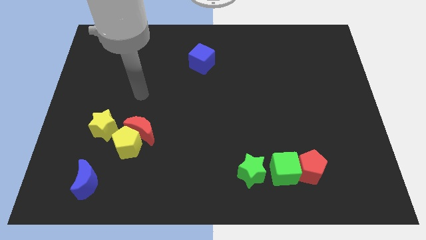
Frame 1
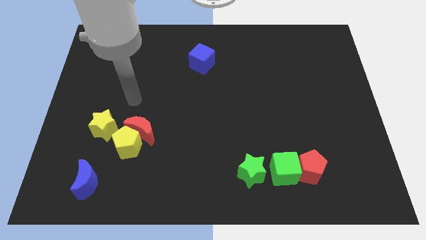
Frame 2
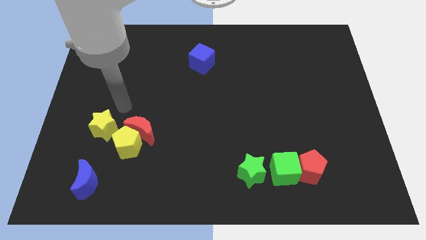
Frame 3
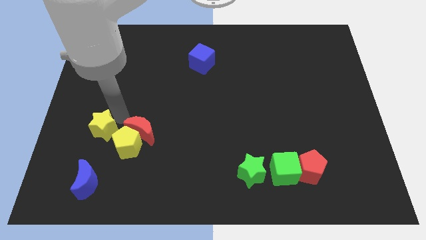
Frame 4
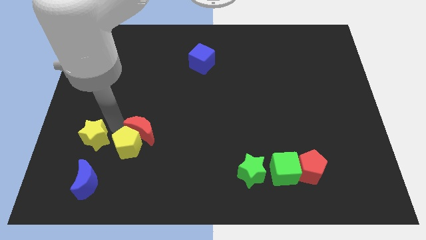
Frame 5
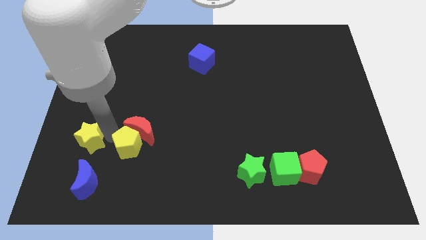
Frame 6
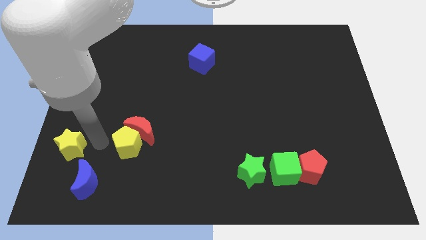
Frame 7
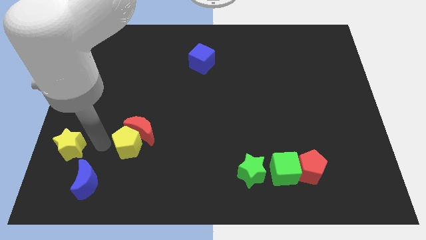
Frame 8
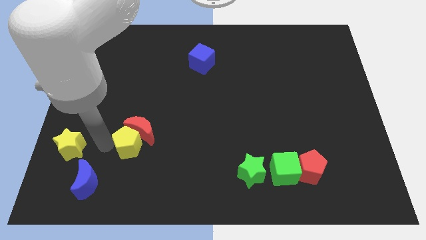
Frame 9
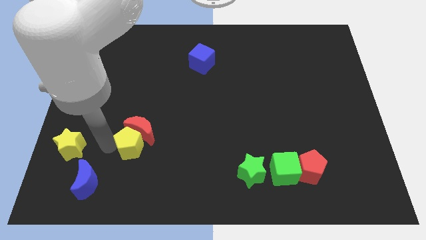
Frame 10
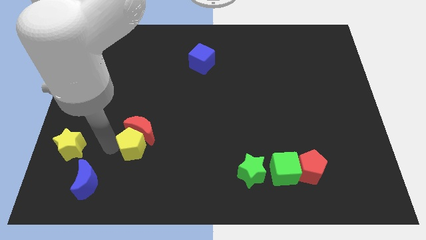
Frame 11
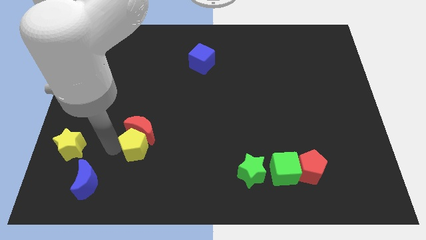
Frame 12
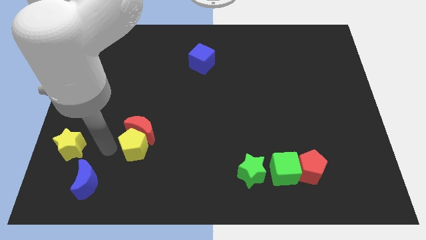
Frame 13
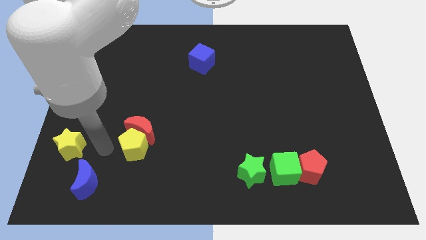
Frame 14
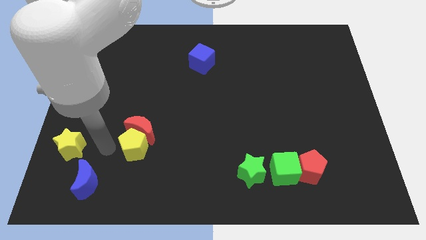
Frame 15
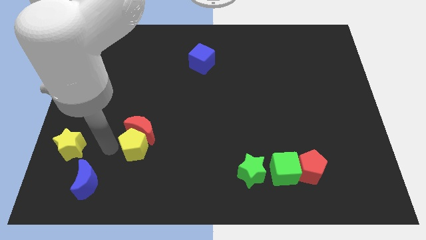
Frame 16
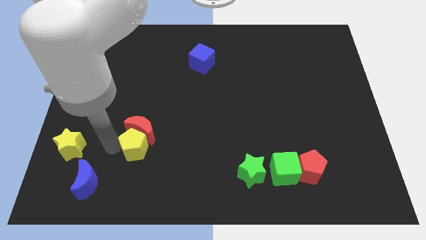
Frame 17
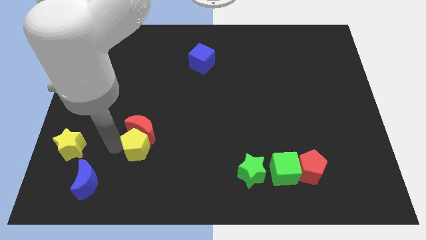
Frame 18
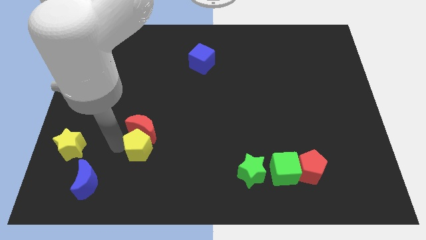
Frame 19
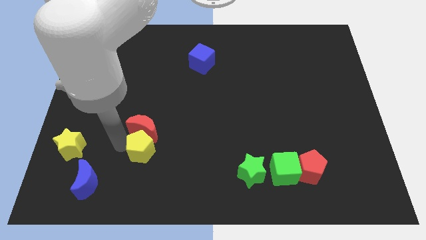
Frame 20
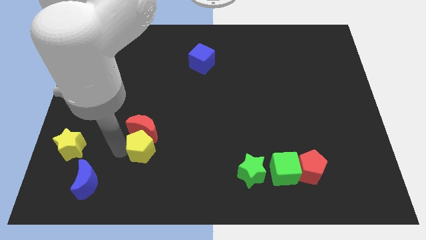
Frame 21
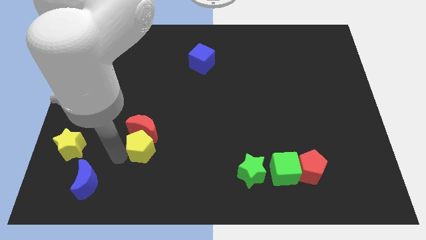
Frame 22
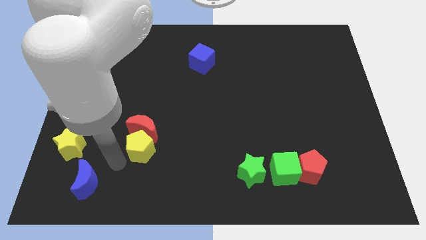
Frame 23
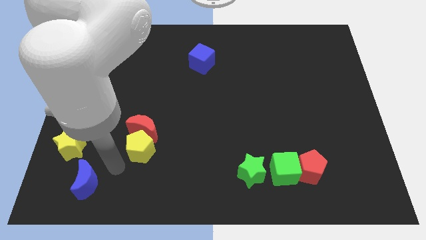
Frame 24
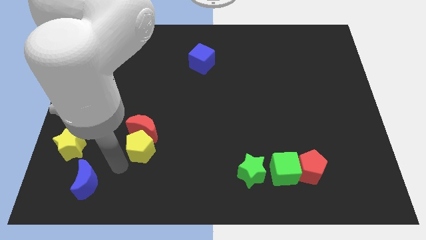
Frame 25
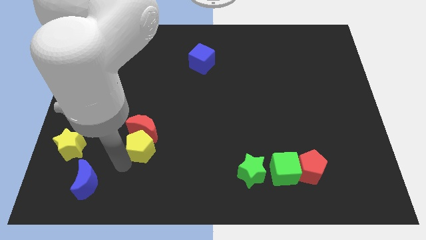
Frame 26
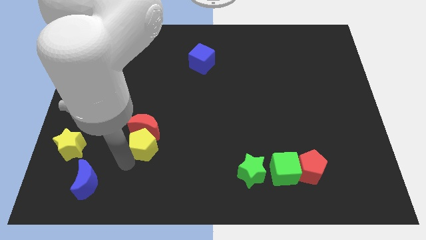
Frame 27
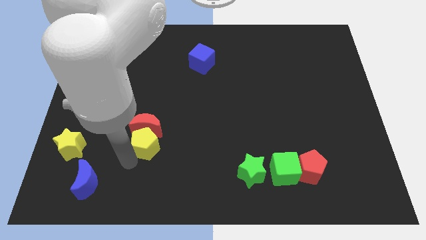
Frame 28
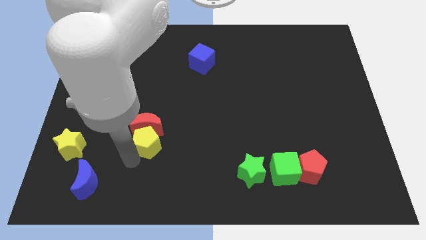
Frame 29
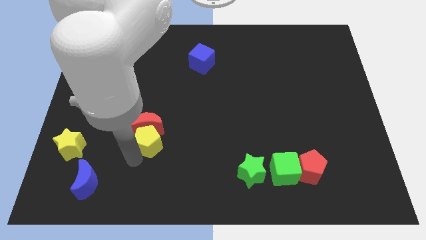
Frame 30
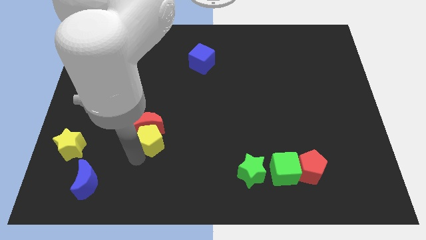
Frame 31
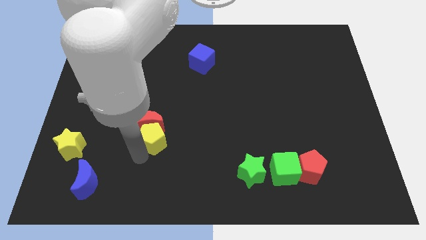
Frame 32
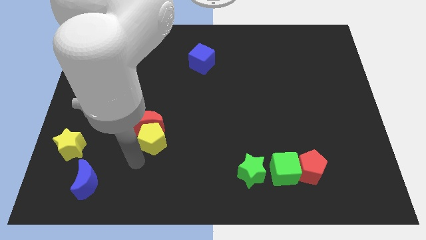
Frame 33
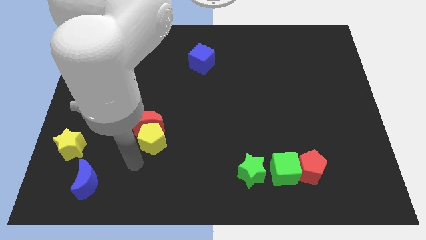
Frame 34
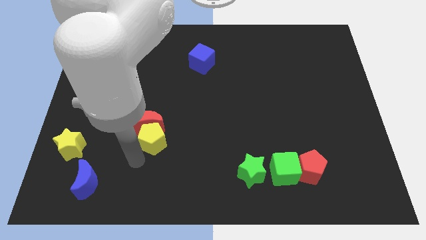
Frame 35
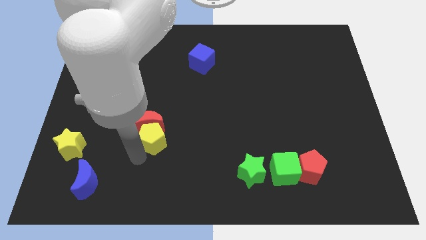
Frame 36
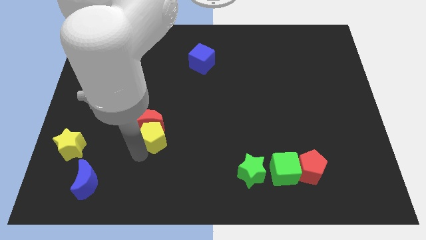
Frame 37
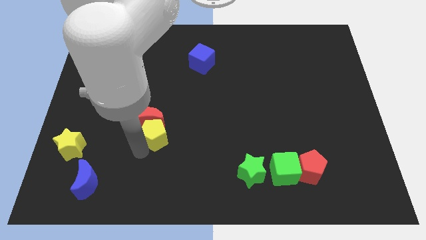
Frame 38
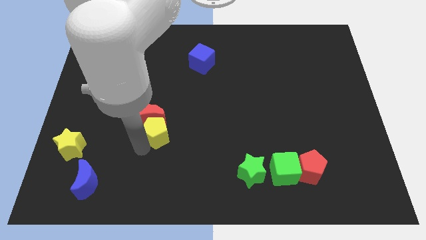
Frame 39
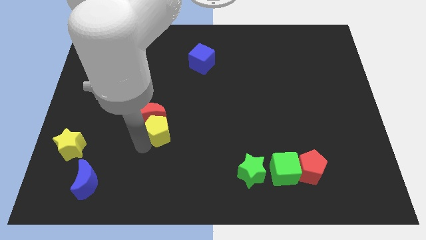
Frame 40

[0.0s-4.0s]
move the yellow pentagon upwards and right diagonally somewhat

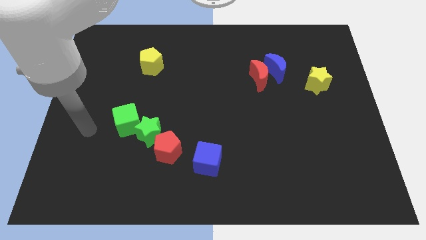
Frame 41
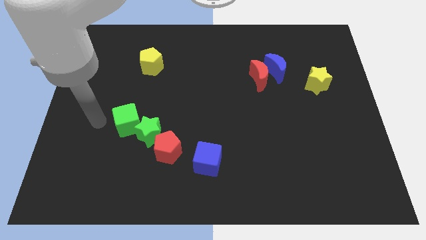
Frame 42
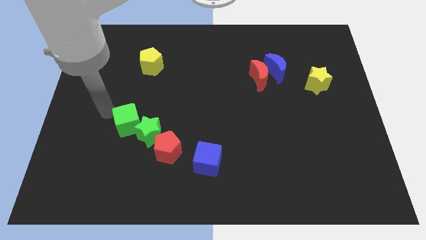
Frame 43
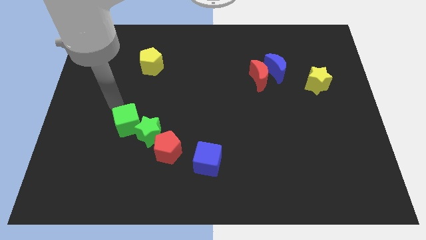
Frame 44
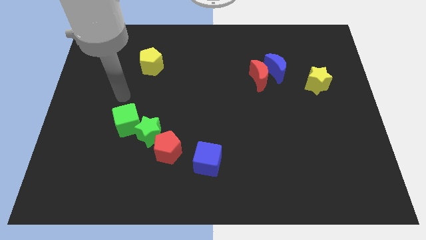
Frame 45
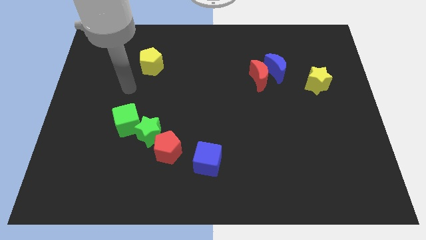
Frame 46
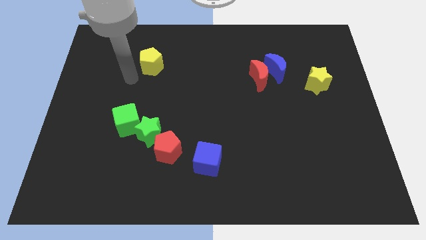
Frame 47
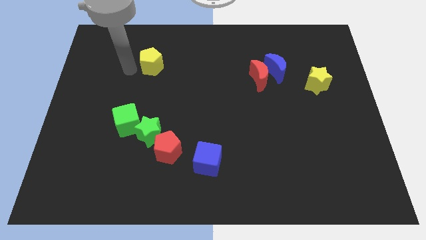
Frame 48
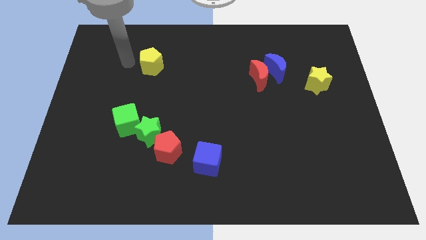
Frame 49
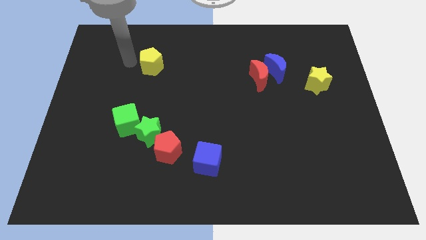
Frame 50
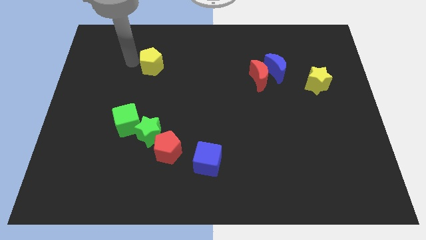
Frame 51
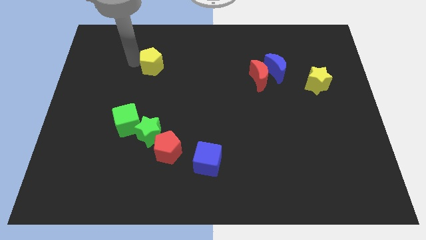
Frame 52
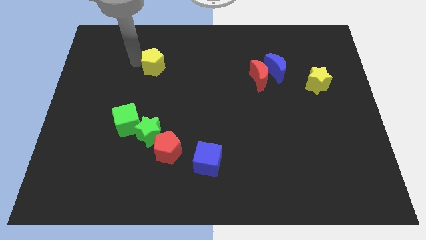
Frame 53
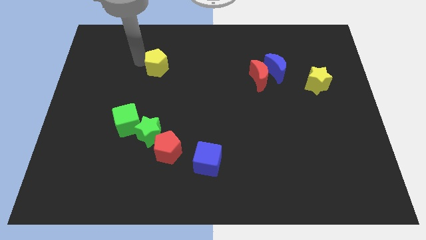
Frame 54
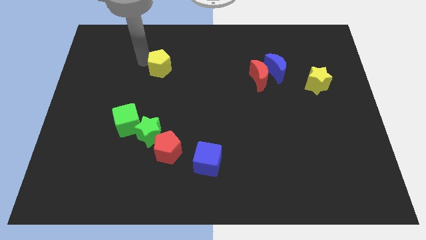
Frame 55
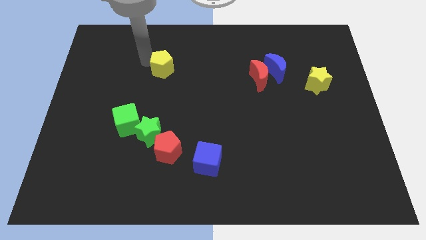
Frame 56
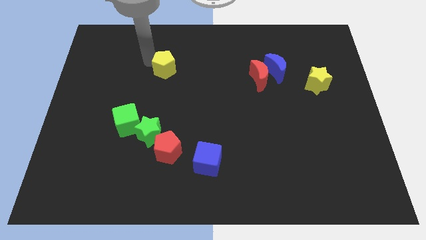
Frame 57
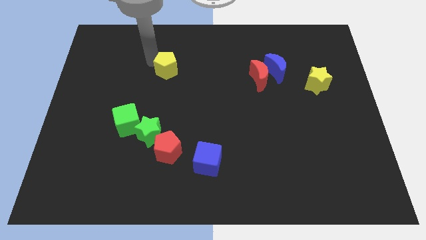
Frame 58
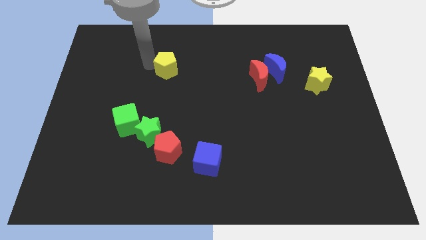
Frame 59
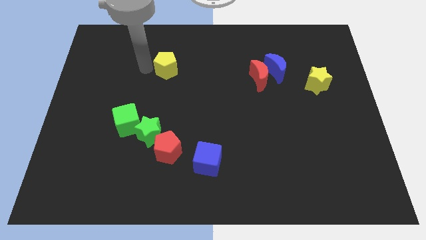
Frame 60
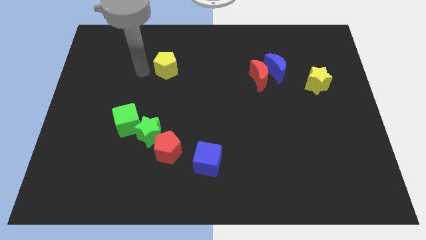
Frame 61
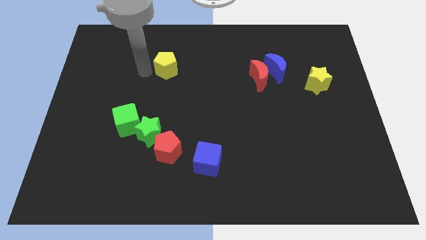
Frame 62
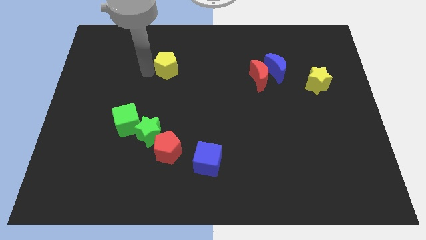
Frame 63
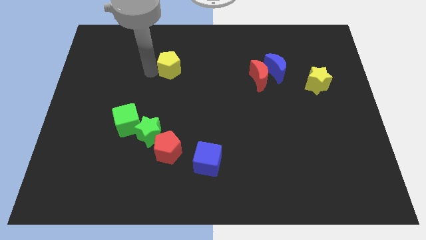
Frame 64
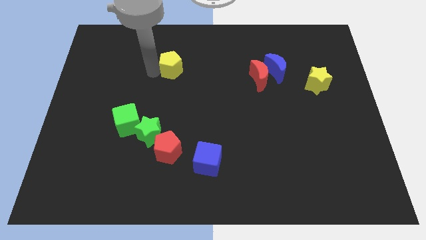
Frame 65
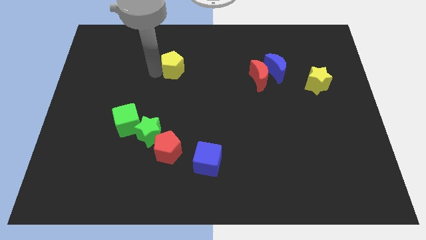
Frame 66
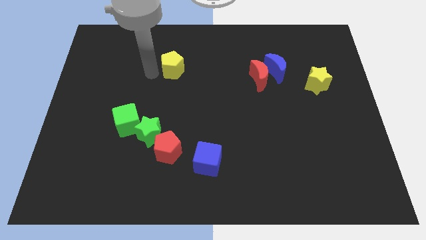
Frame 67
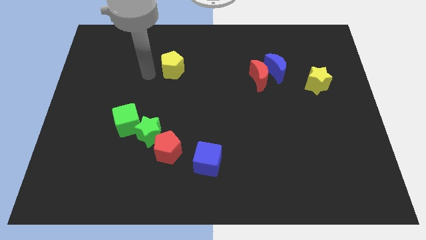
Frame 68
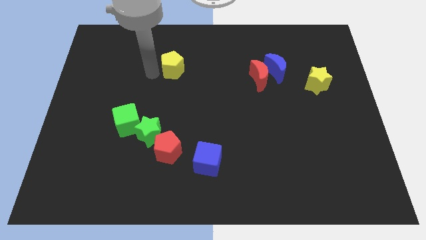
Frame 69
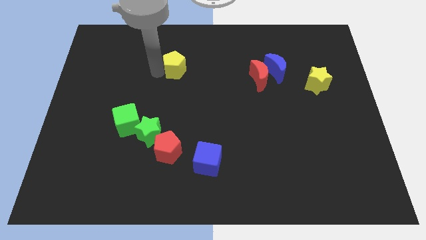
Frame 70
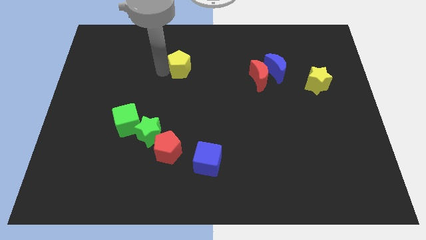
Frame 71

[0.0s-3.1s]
slide the yellow pentagon slightly right

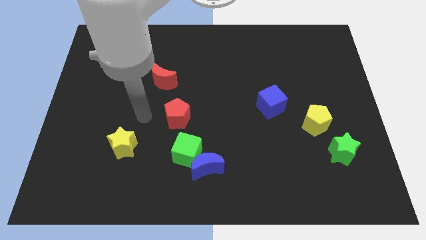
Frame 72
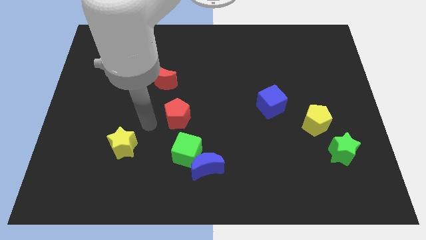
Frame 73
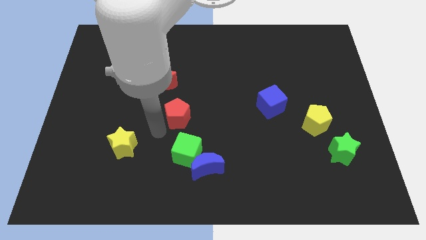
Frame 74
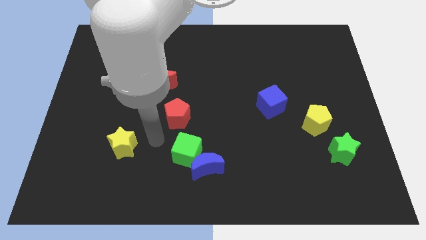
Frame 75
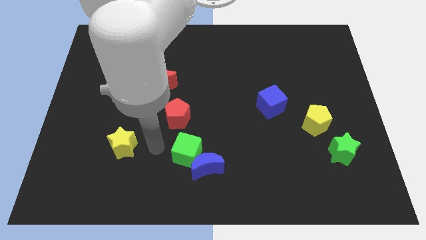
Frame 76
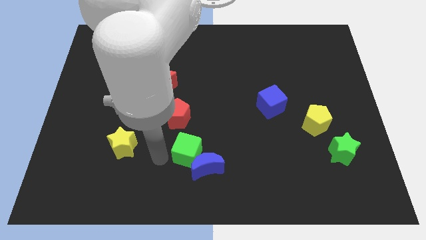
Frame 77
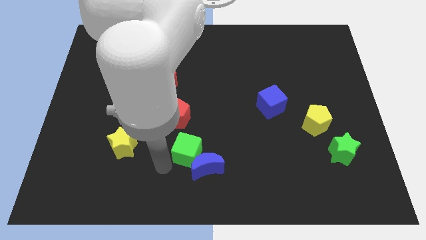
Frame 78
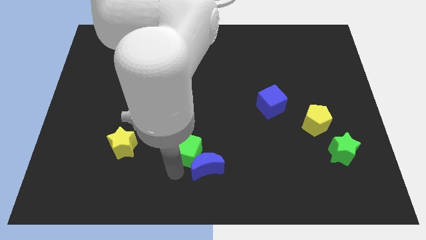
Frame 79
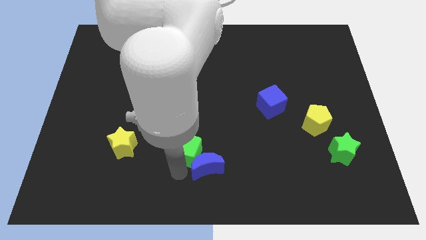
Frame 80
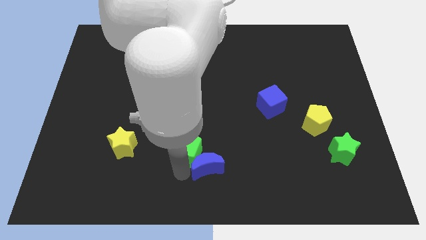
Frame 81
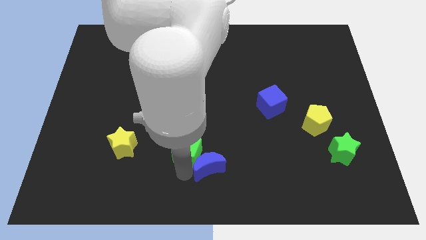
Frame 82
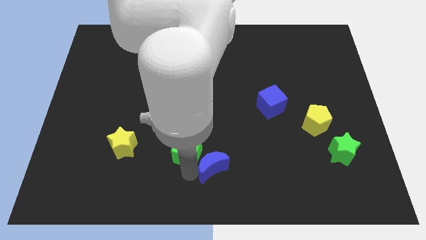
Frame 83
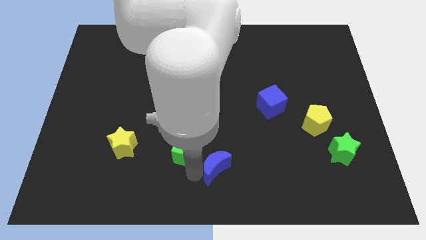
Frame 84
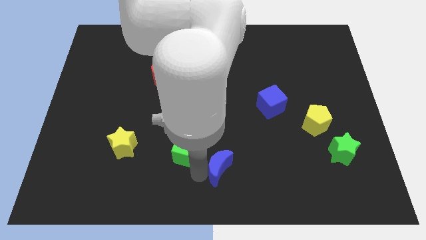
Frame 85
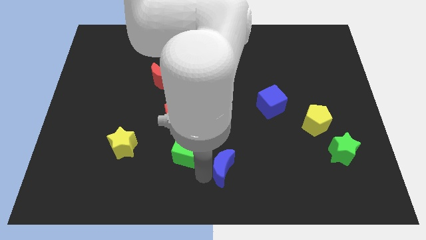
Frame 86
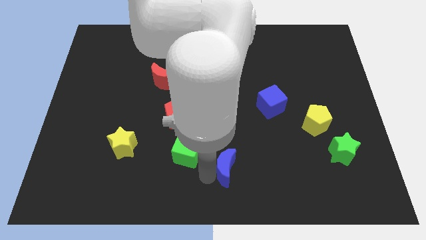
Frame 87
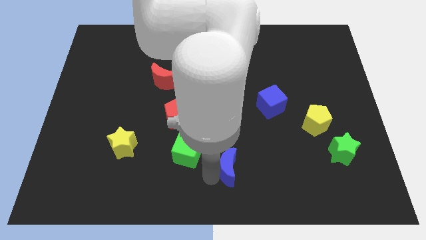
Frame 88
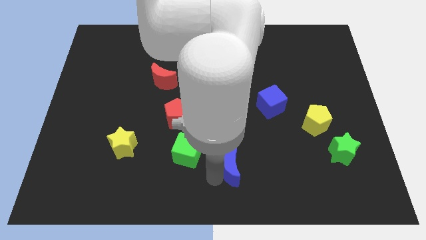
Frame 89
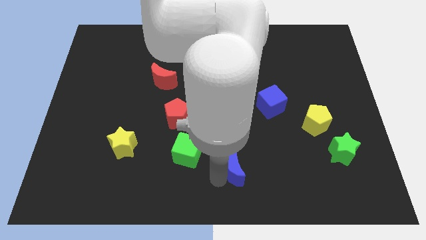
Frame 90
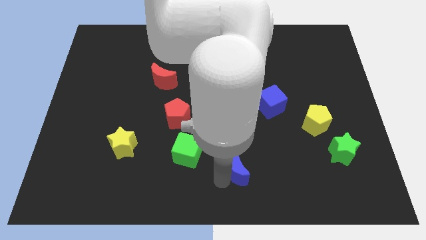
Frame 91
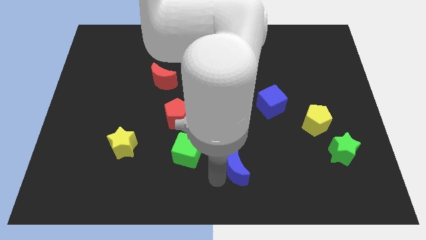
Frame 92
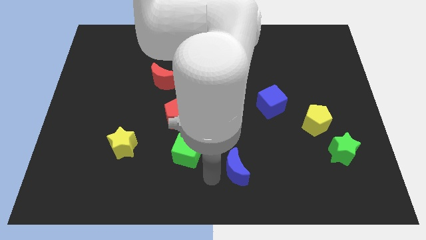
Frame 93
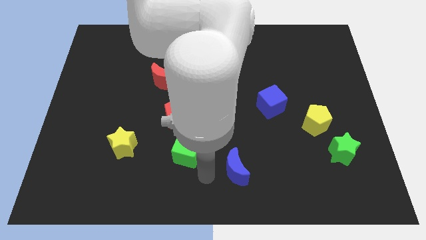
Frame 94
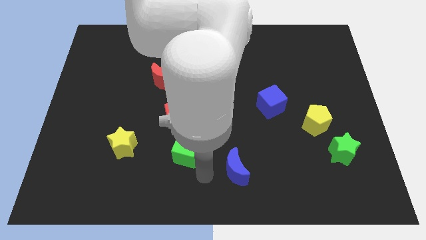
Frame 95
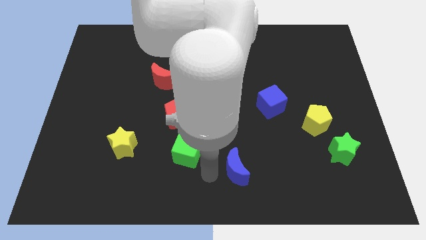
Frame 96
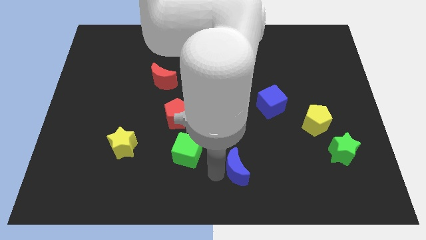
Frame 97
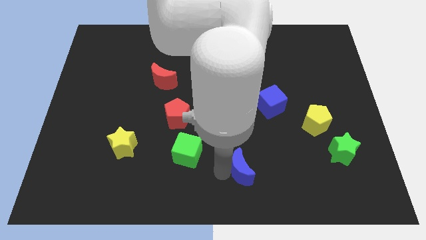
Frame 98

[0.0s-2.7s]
push the blue moon a little bit to the right
